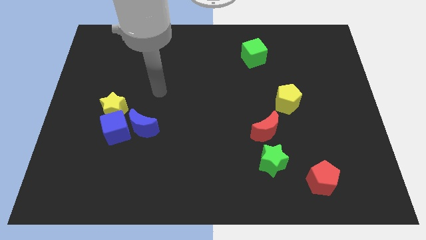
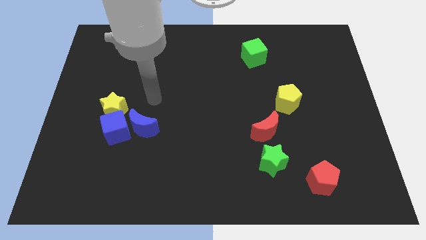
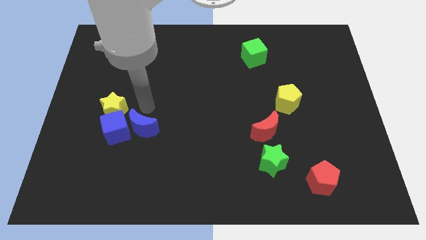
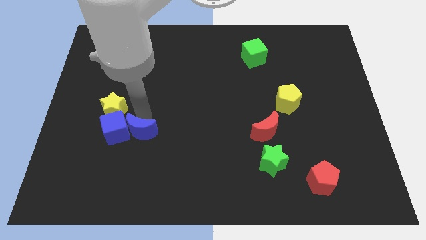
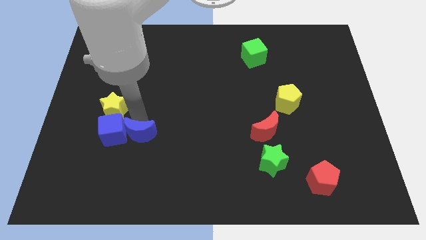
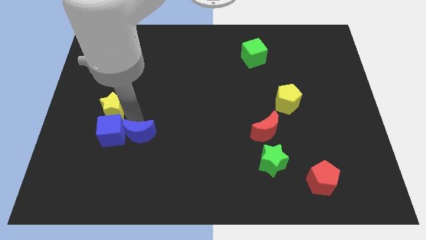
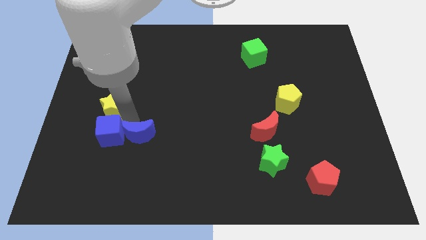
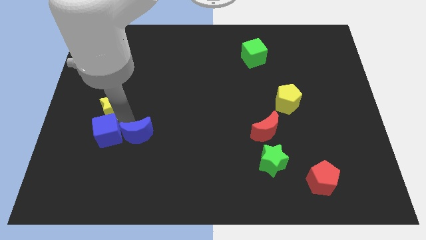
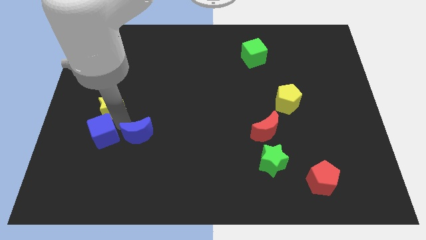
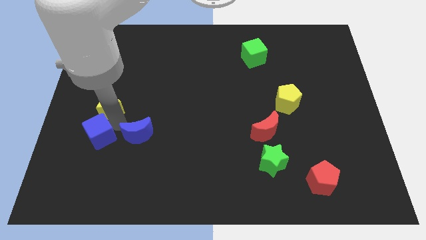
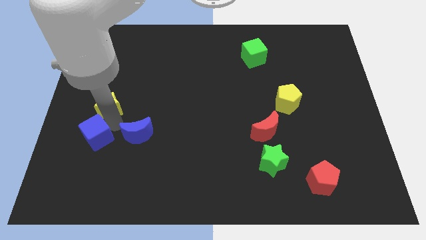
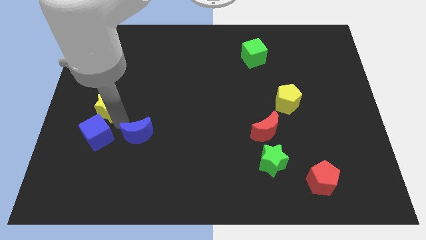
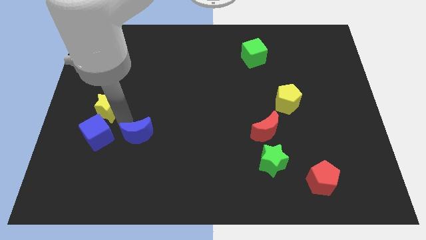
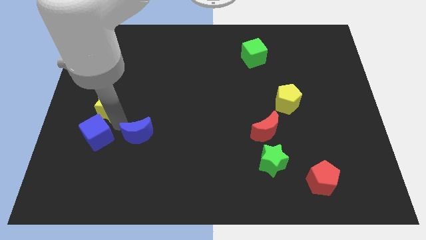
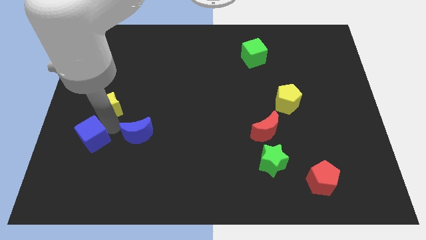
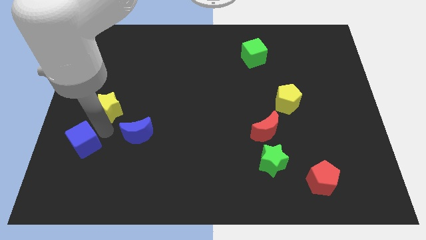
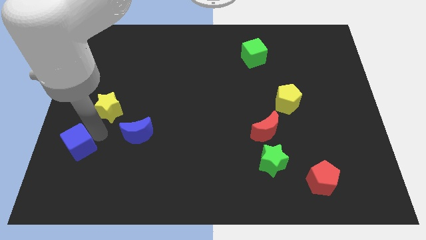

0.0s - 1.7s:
move the blue cube away from the yellow star and blue moon

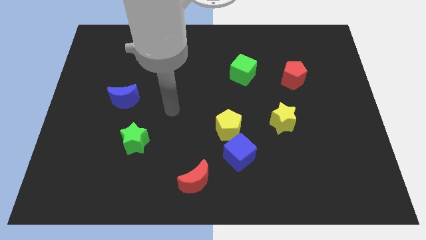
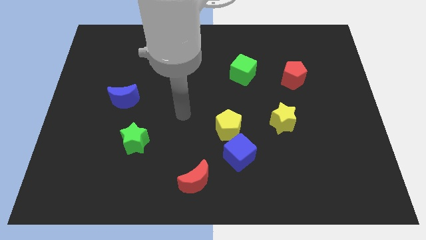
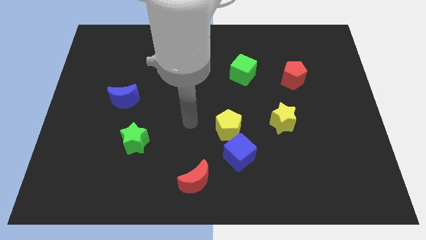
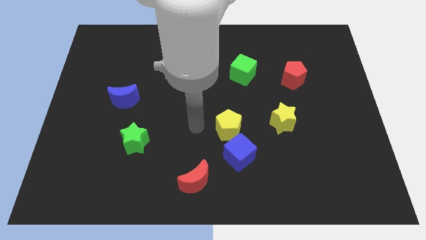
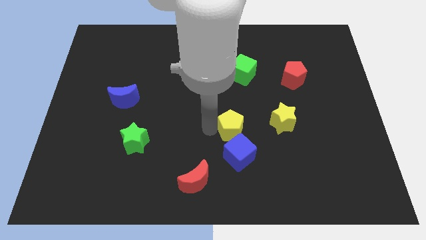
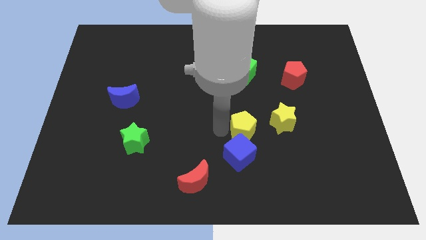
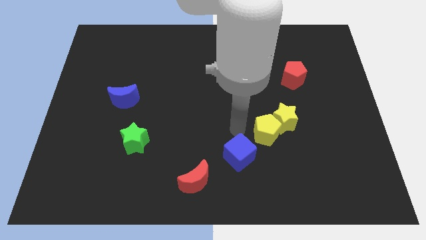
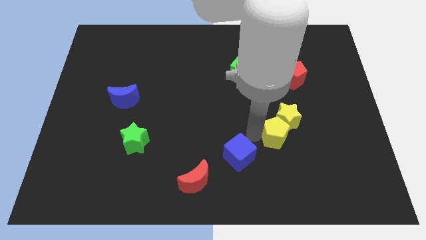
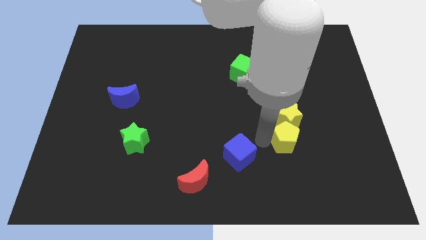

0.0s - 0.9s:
move the blue cube away from the yellow pentagon

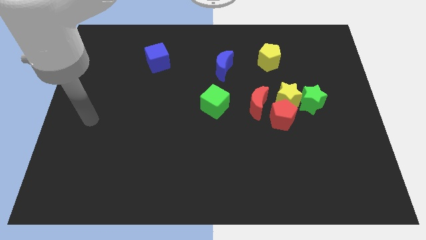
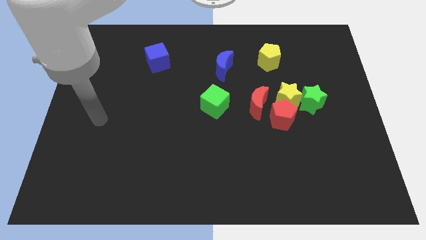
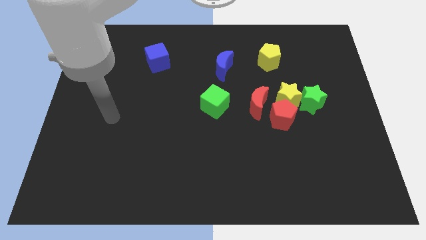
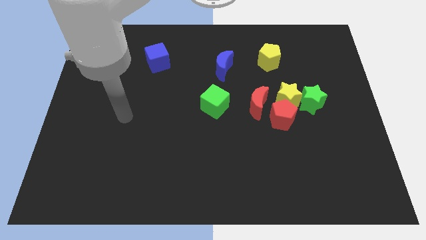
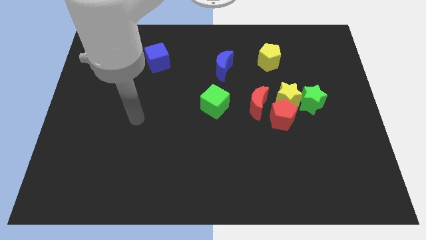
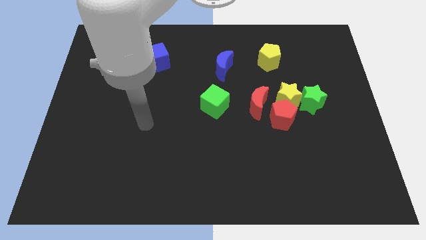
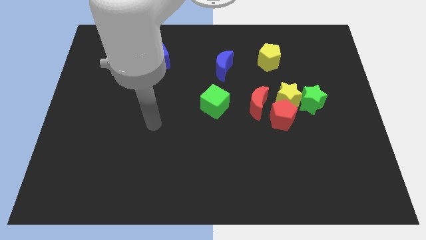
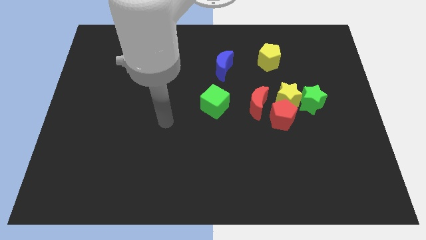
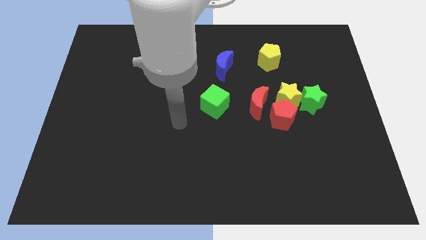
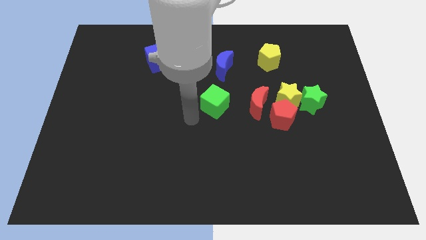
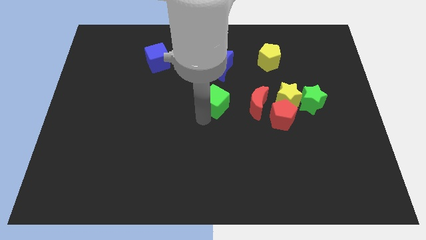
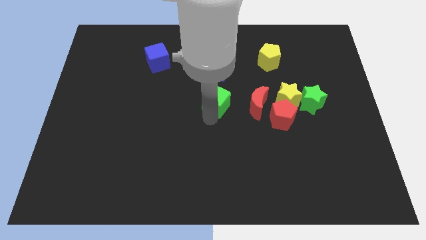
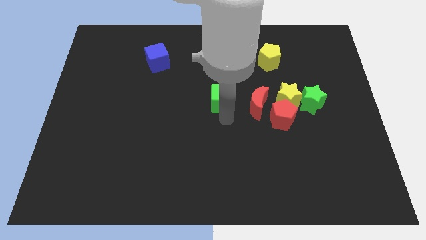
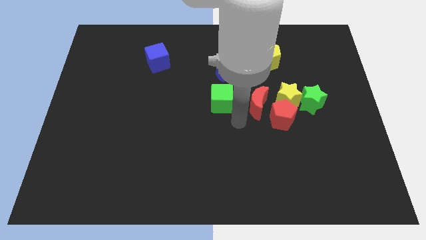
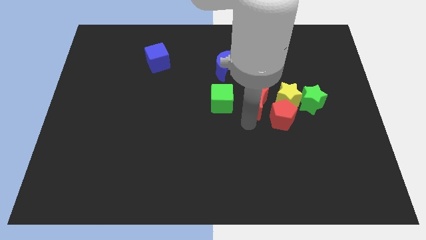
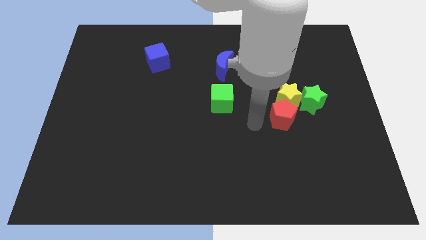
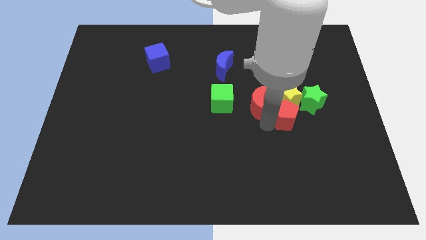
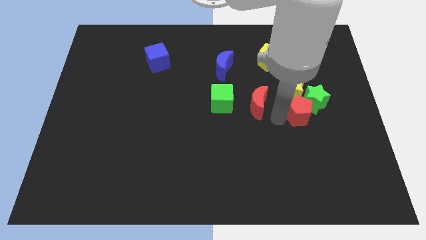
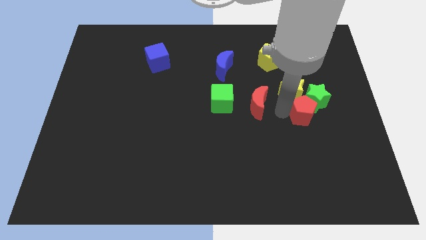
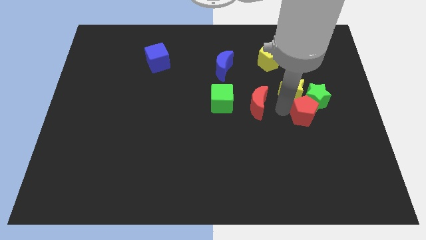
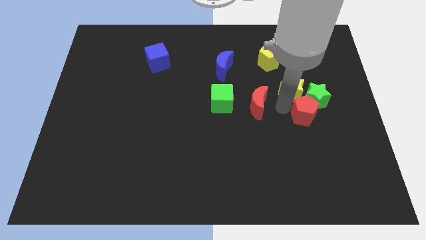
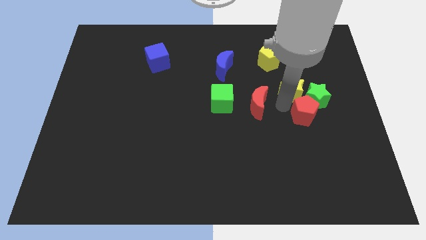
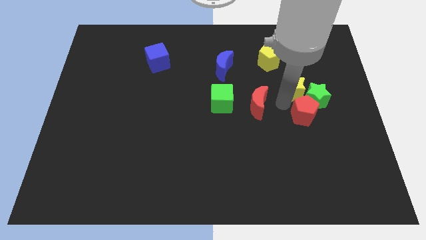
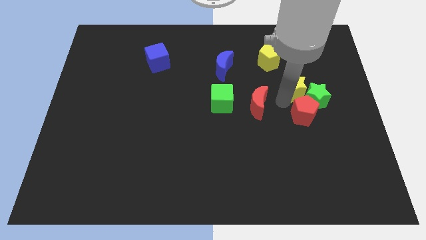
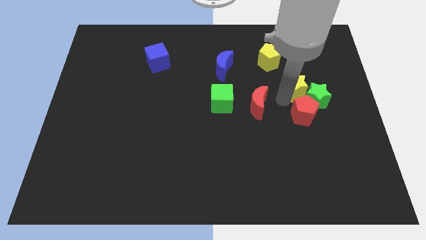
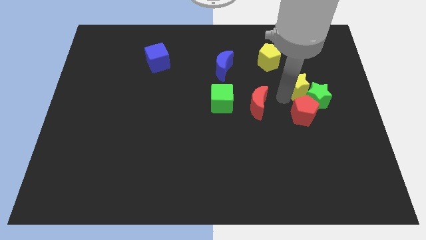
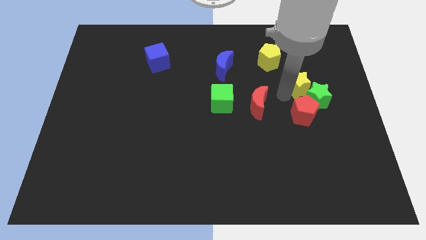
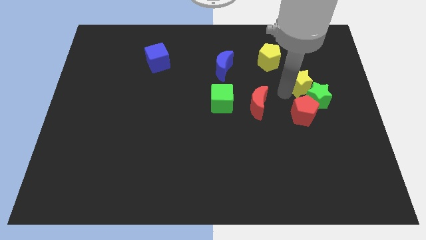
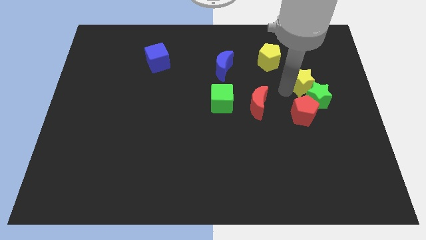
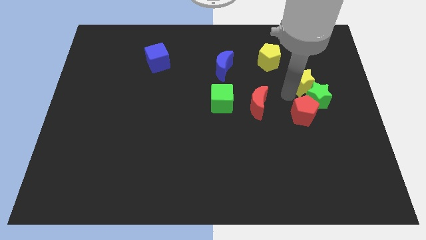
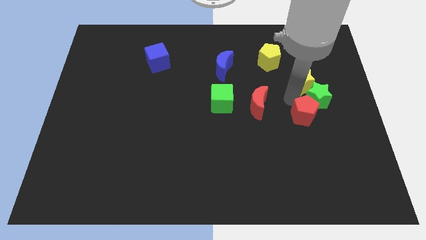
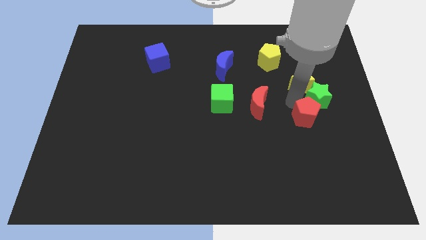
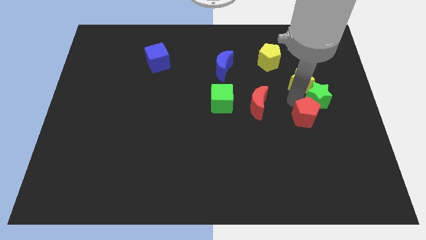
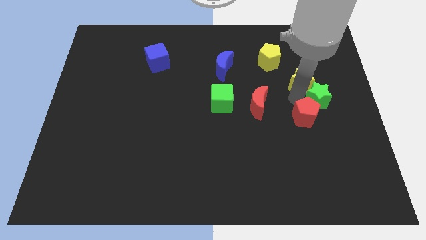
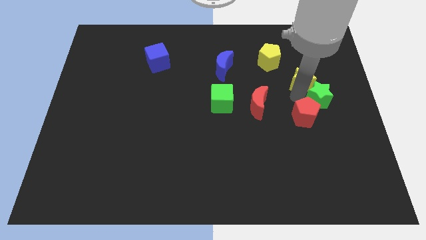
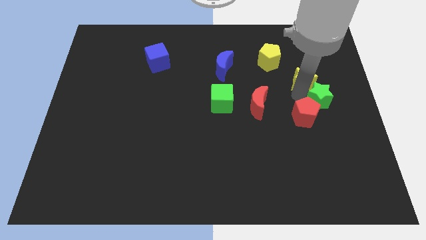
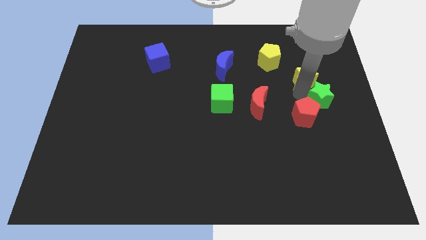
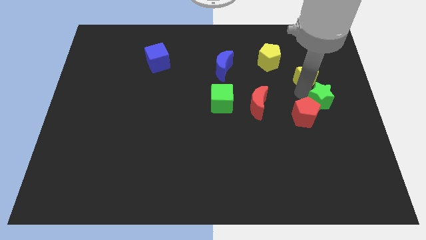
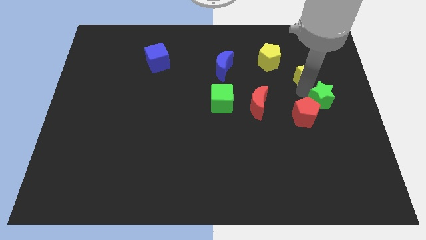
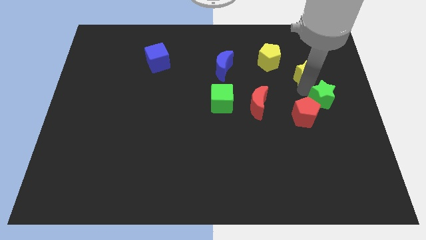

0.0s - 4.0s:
move the yellow star away from the group

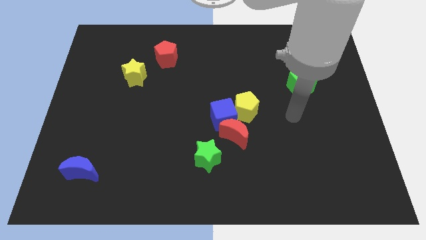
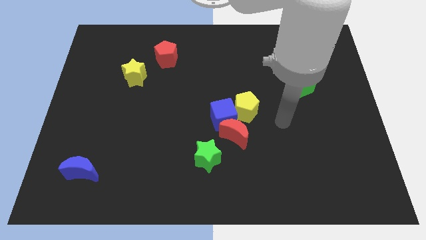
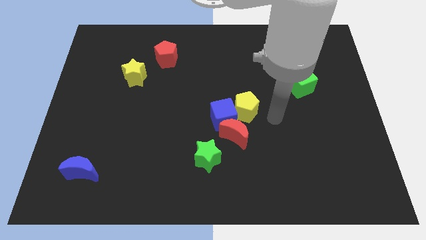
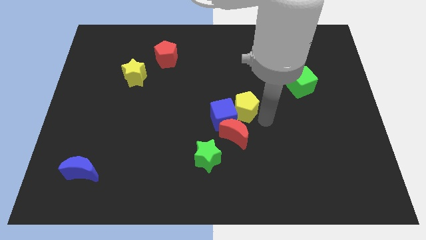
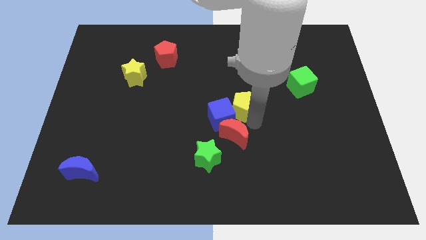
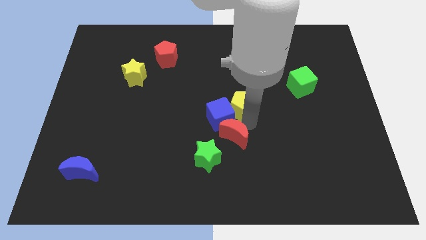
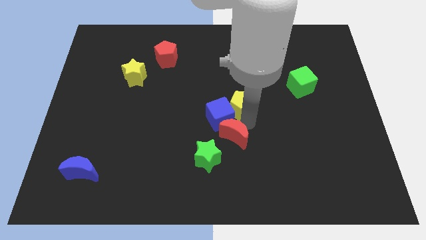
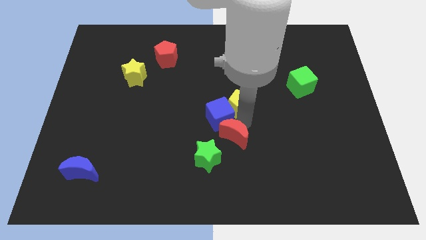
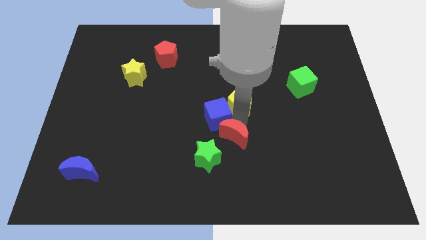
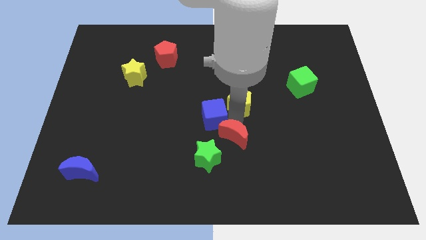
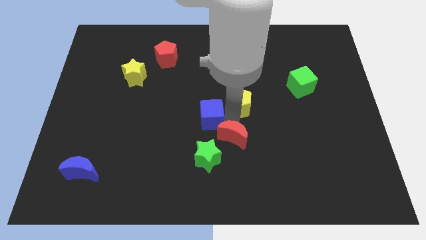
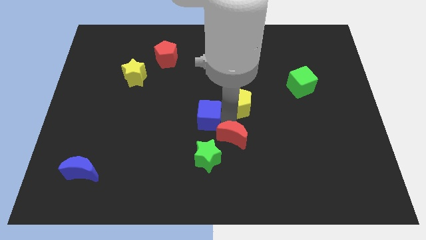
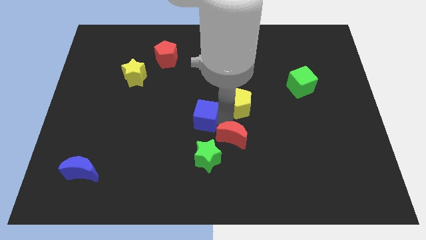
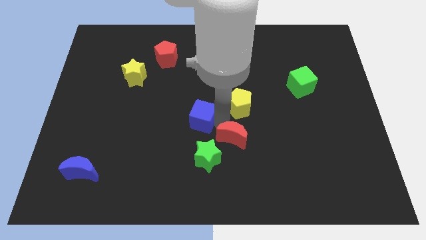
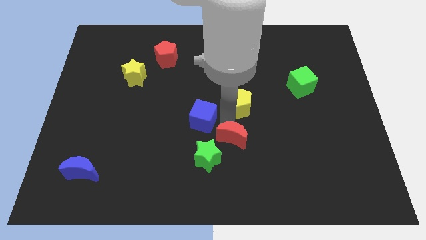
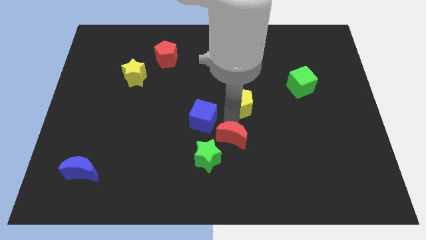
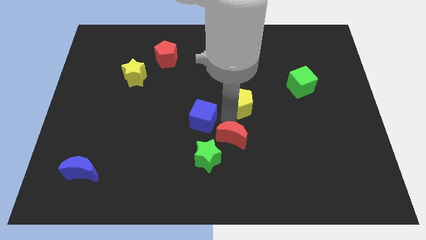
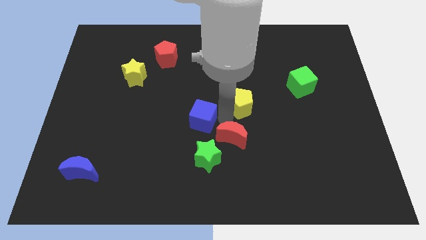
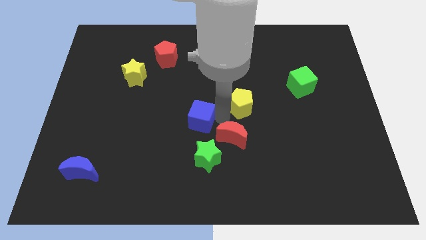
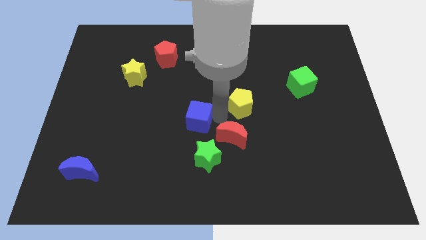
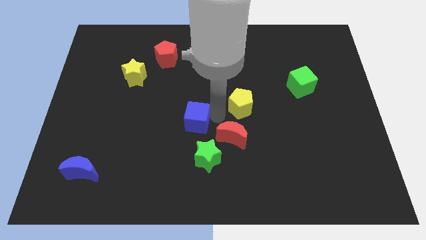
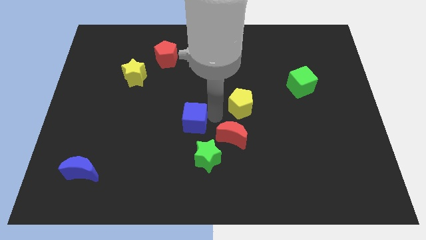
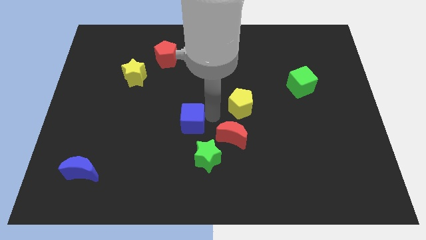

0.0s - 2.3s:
move the blue cube away from the red moon and yellow pentagon

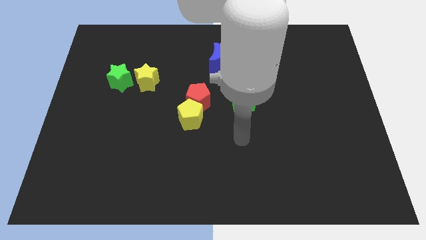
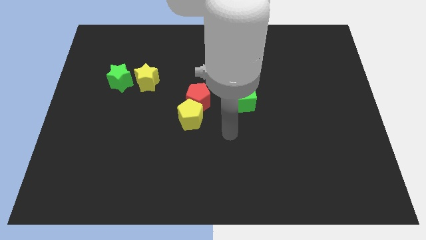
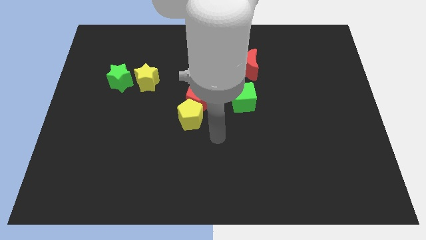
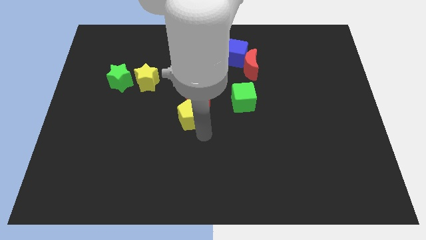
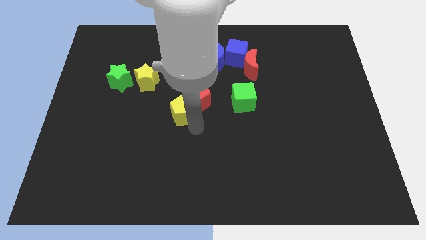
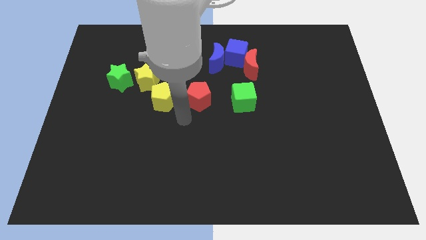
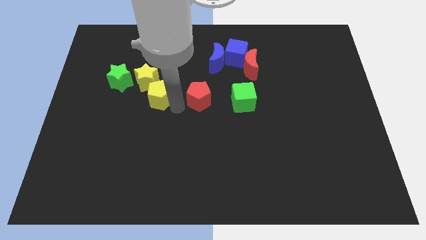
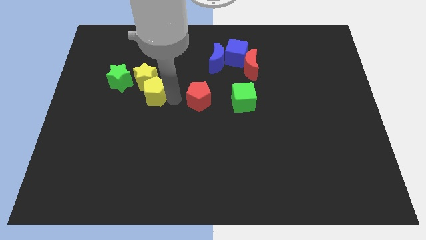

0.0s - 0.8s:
pull the red pentagon apart from the yellow pentagon
